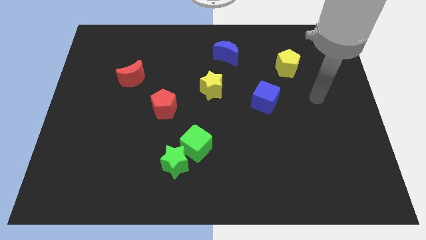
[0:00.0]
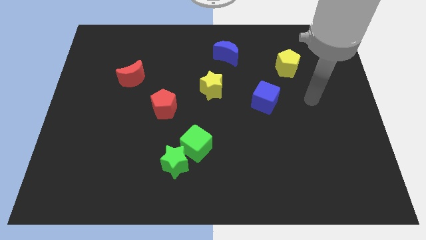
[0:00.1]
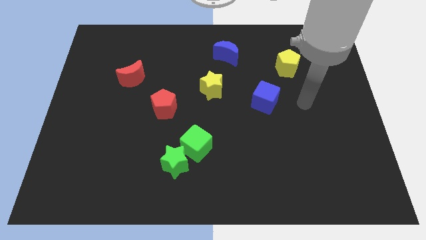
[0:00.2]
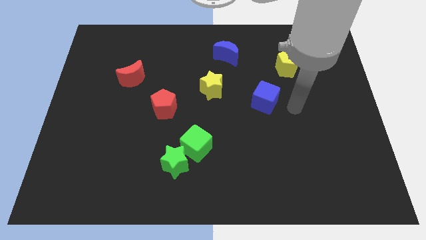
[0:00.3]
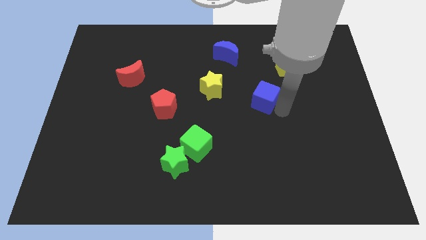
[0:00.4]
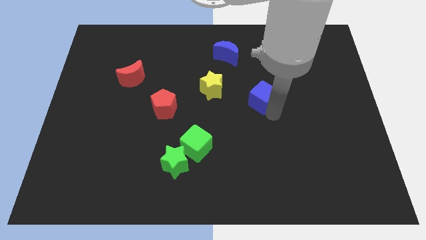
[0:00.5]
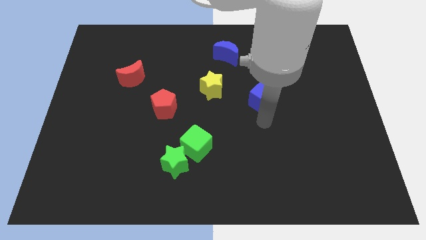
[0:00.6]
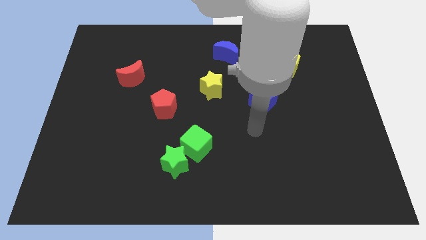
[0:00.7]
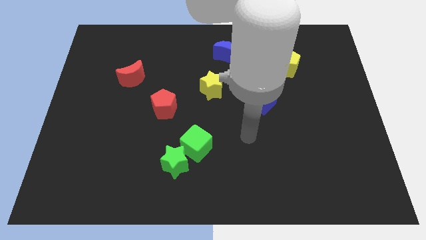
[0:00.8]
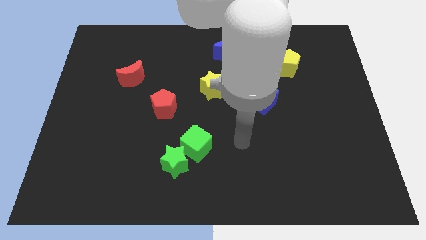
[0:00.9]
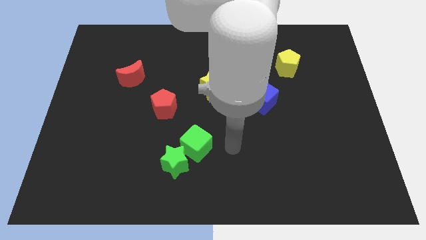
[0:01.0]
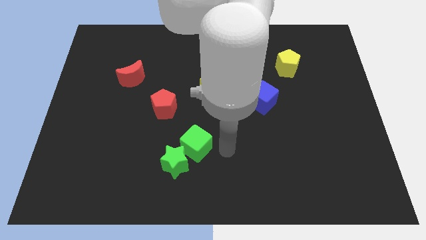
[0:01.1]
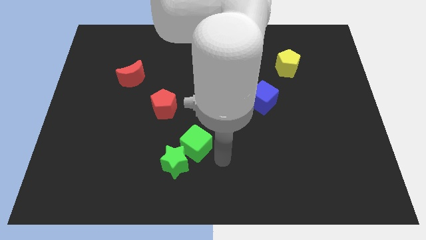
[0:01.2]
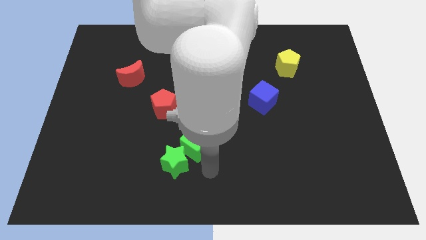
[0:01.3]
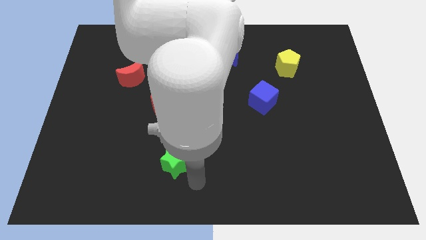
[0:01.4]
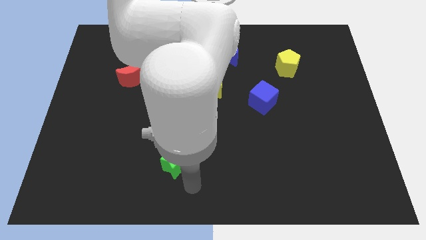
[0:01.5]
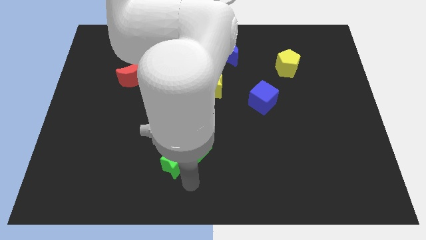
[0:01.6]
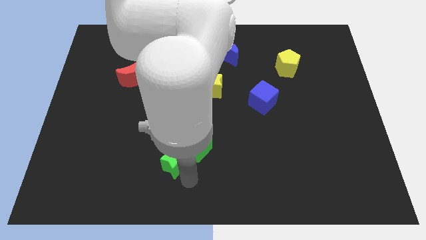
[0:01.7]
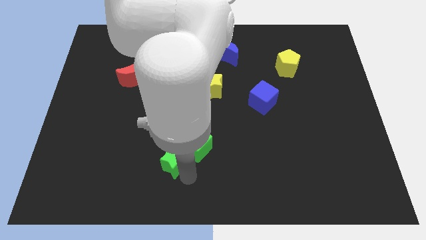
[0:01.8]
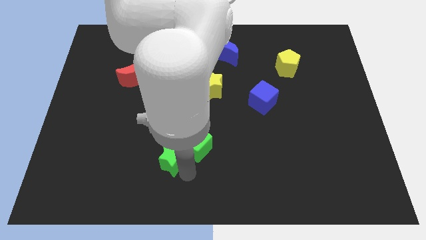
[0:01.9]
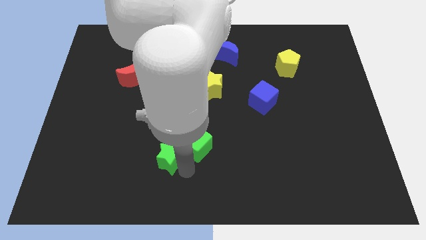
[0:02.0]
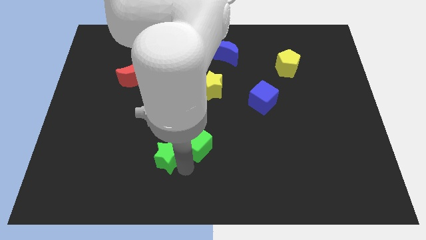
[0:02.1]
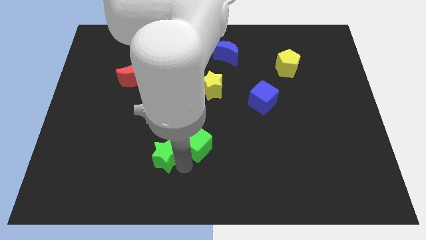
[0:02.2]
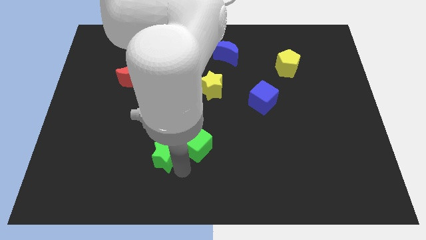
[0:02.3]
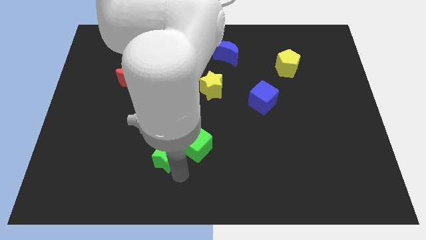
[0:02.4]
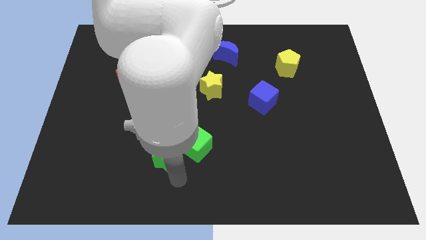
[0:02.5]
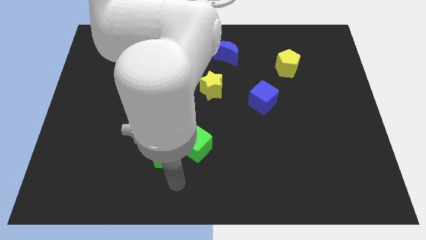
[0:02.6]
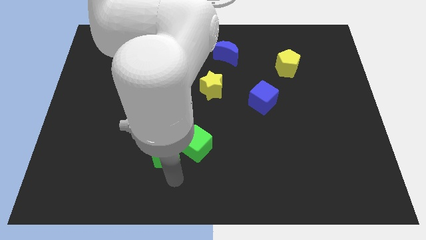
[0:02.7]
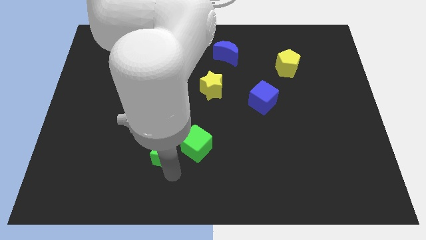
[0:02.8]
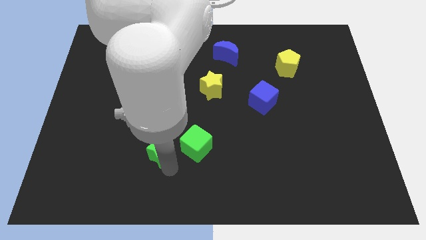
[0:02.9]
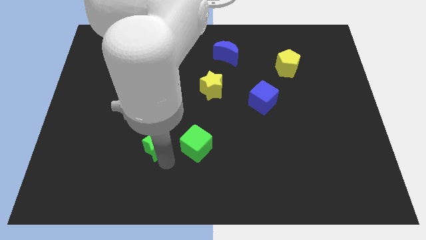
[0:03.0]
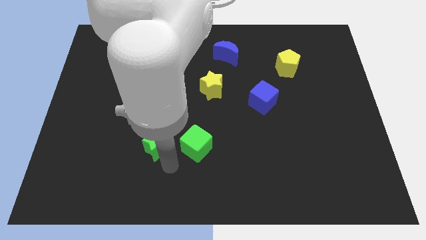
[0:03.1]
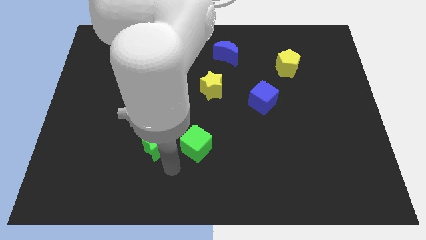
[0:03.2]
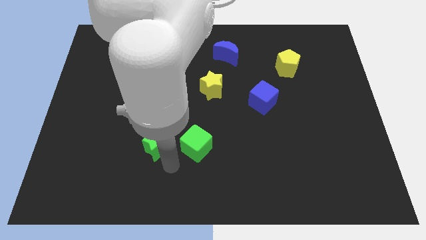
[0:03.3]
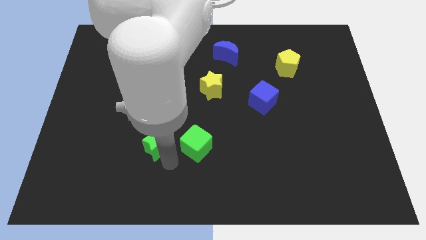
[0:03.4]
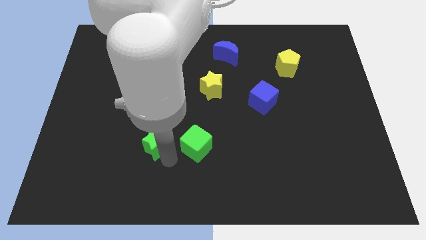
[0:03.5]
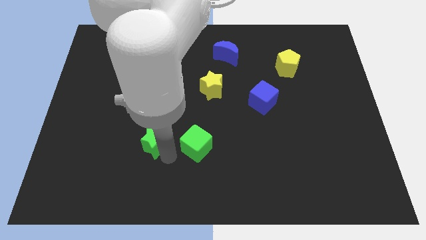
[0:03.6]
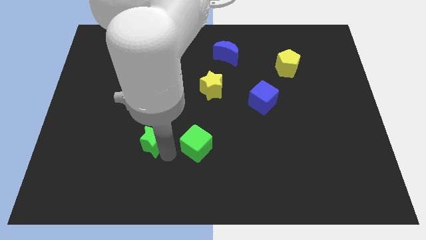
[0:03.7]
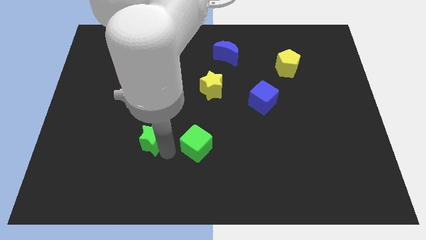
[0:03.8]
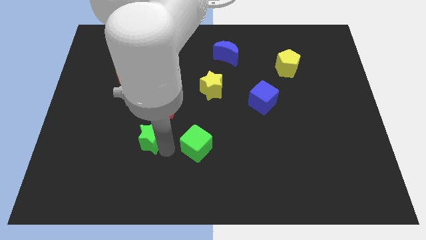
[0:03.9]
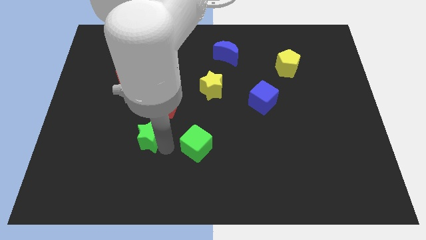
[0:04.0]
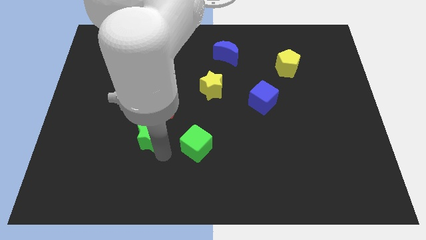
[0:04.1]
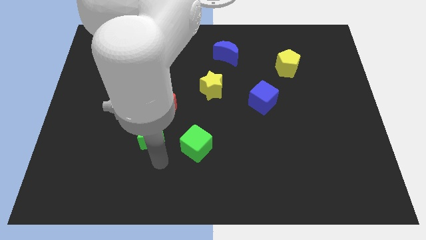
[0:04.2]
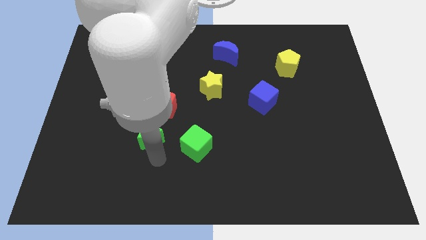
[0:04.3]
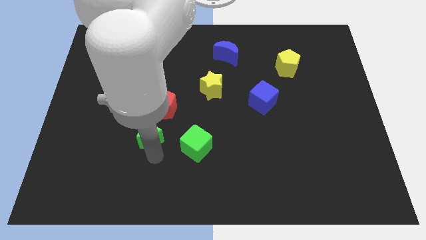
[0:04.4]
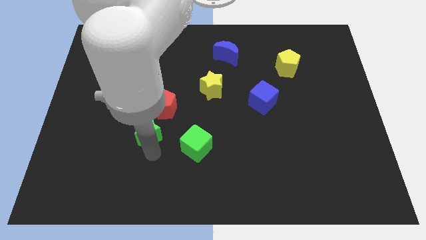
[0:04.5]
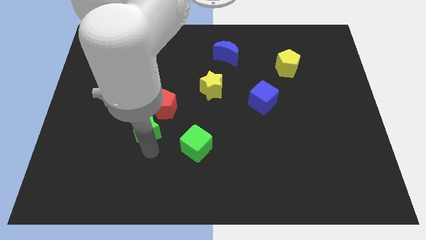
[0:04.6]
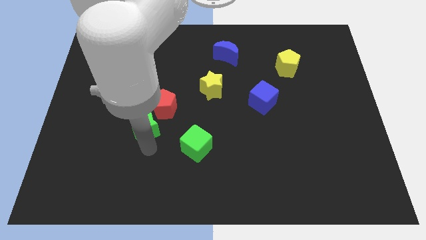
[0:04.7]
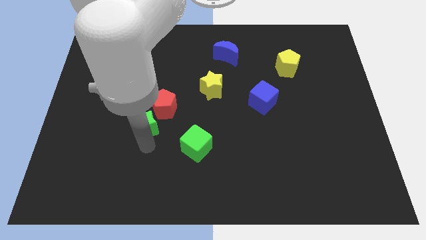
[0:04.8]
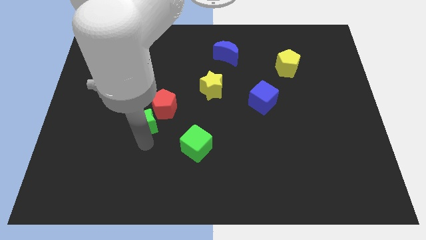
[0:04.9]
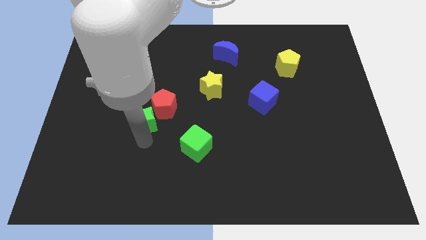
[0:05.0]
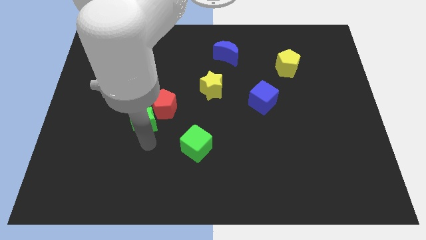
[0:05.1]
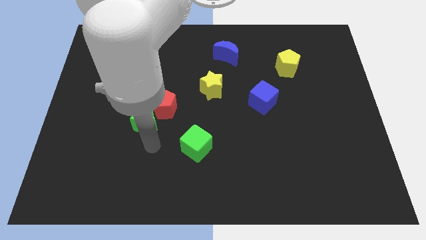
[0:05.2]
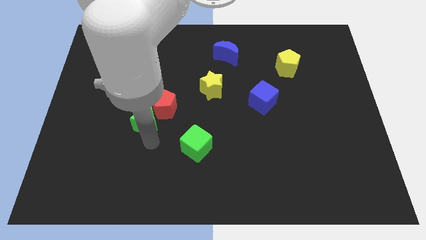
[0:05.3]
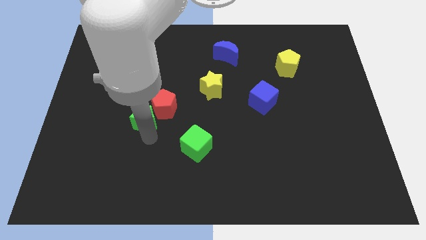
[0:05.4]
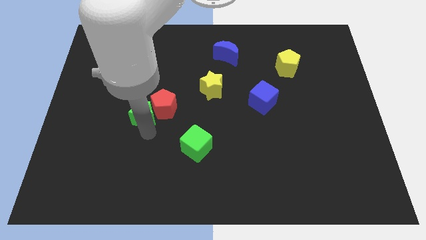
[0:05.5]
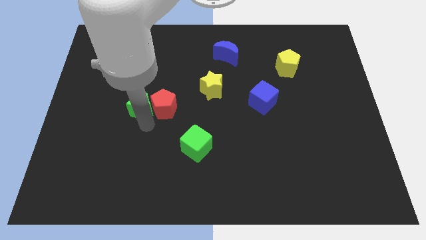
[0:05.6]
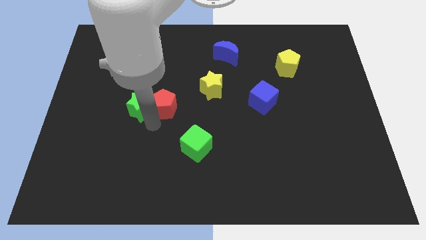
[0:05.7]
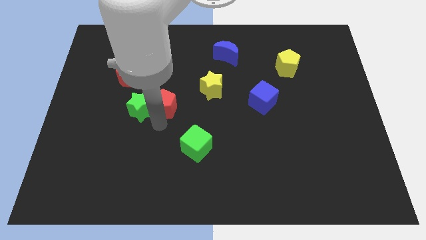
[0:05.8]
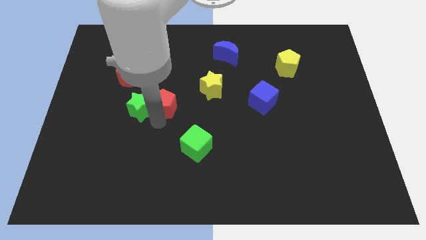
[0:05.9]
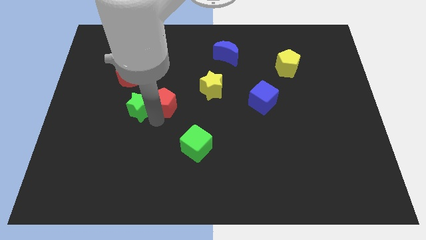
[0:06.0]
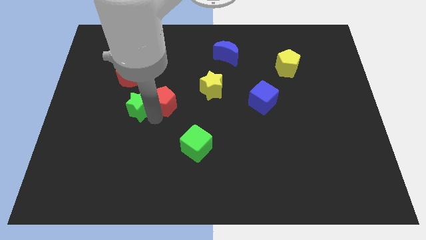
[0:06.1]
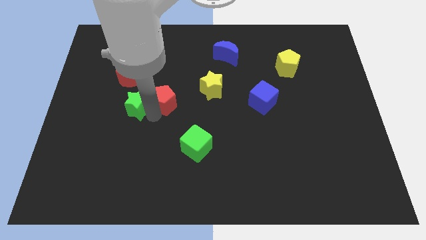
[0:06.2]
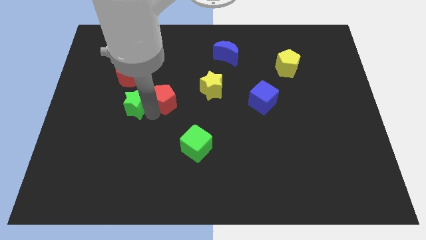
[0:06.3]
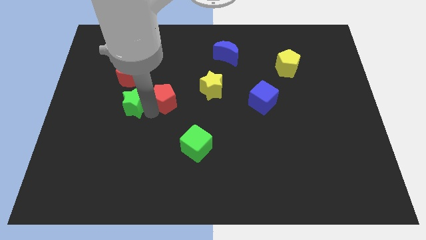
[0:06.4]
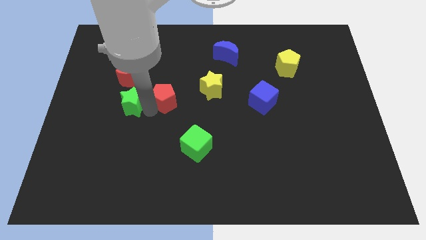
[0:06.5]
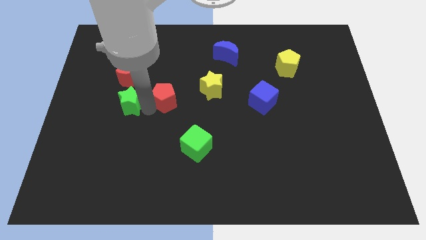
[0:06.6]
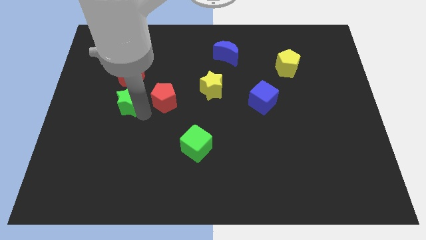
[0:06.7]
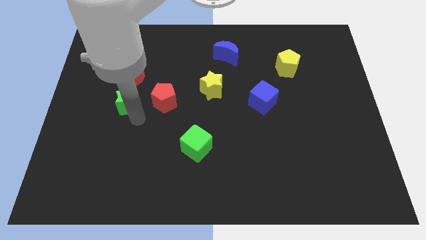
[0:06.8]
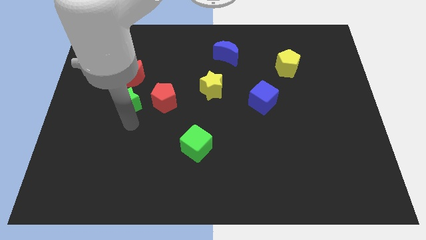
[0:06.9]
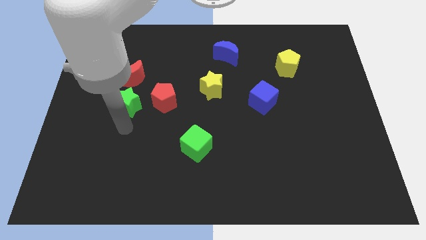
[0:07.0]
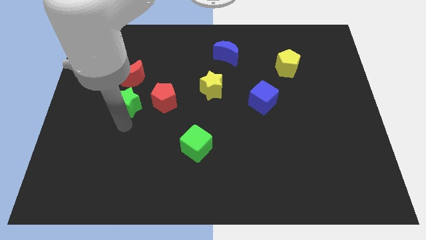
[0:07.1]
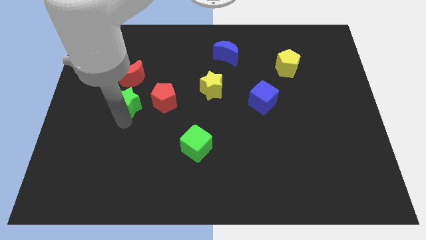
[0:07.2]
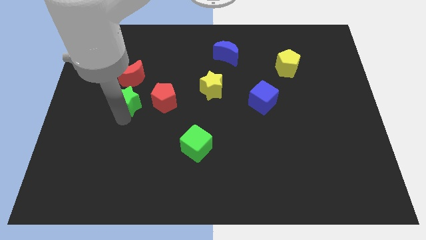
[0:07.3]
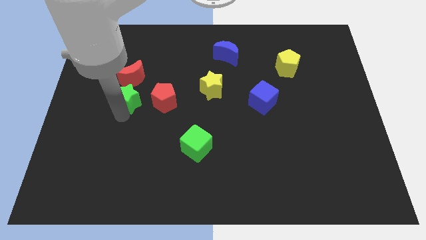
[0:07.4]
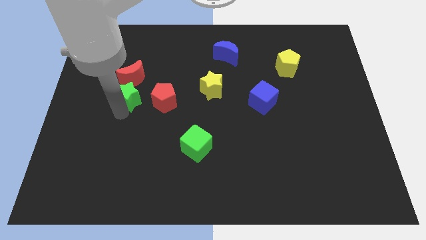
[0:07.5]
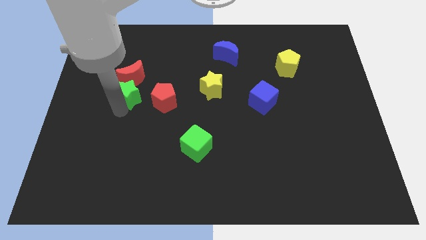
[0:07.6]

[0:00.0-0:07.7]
push the green star close to the red moon
